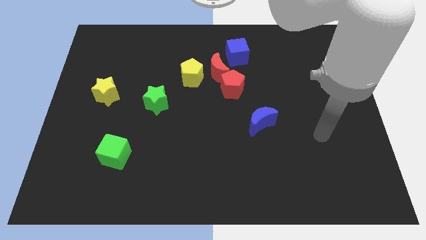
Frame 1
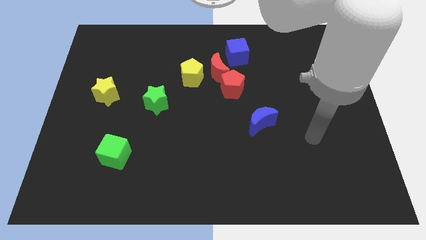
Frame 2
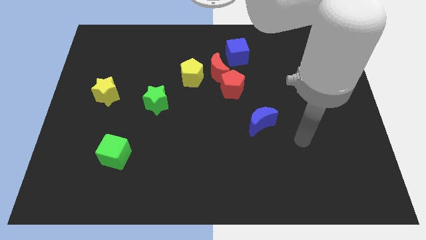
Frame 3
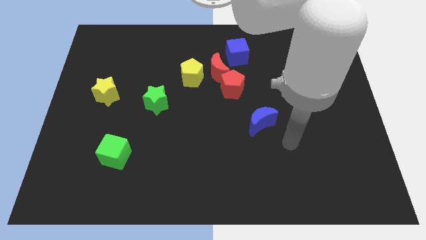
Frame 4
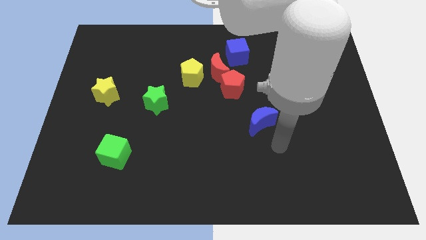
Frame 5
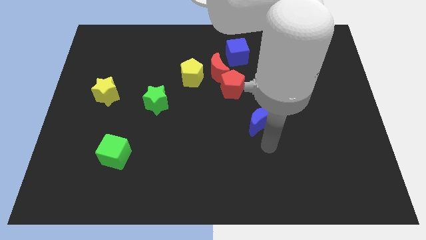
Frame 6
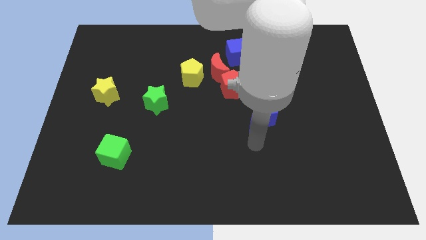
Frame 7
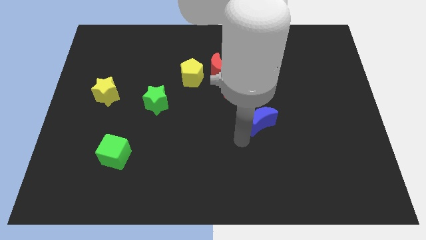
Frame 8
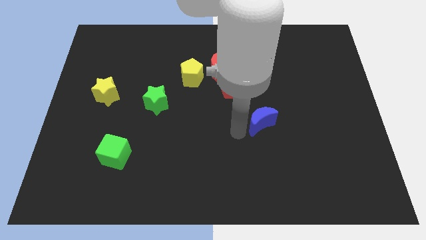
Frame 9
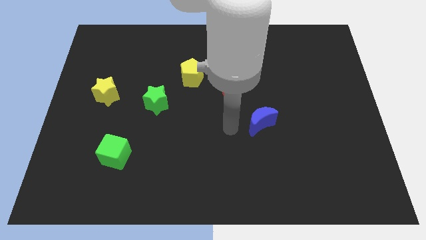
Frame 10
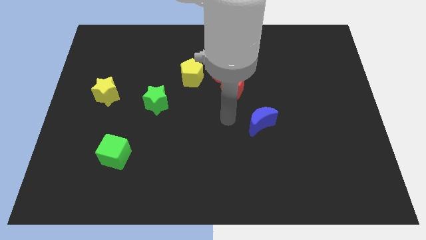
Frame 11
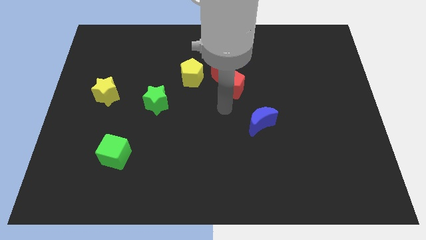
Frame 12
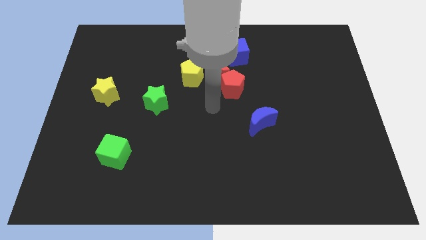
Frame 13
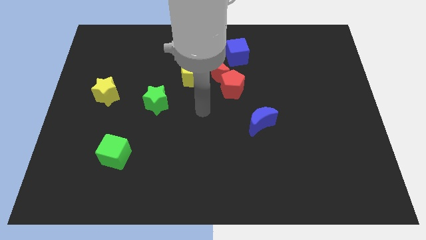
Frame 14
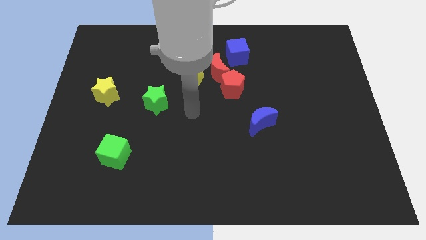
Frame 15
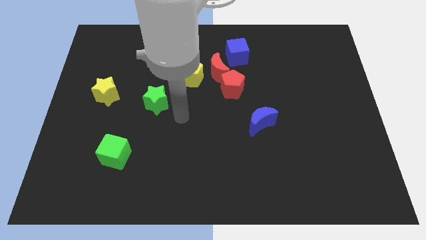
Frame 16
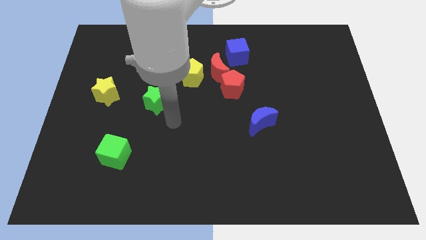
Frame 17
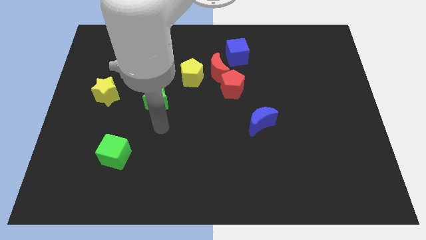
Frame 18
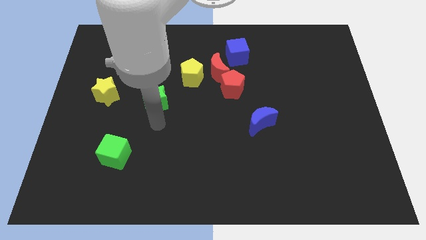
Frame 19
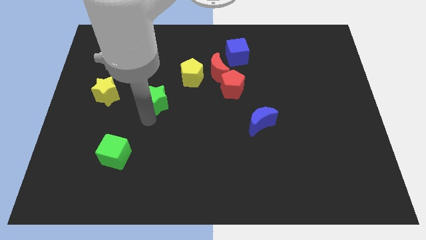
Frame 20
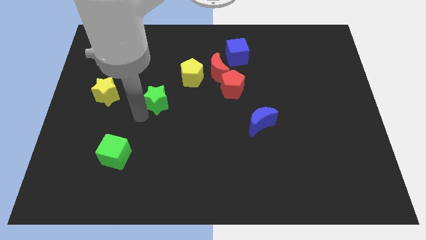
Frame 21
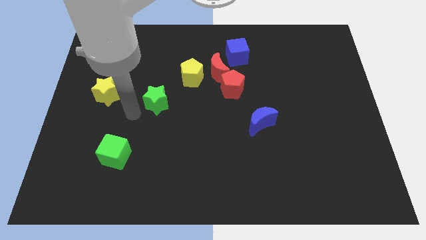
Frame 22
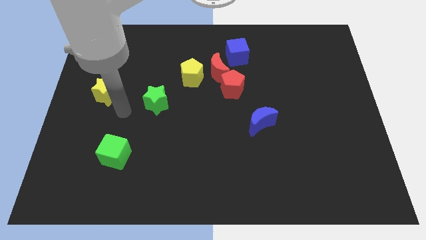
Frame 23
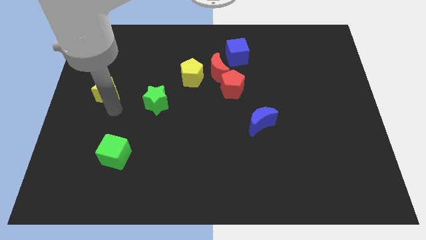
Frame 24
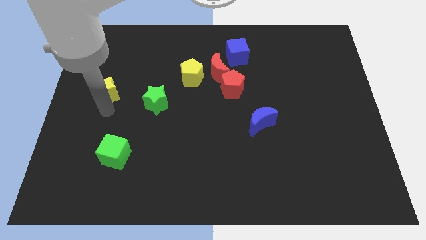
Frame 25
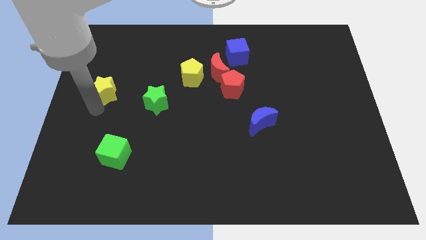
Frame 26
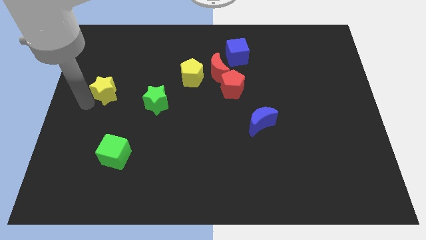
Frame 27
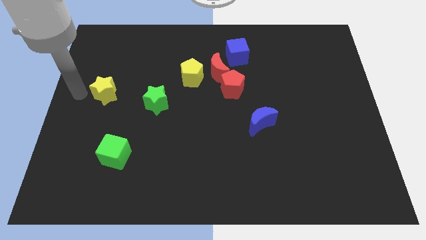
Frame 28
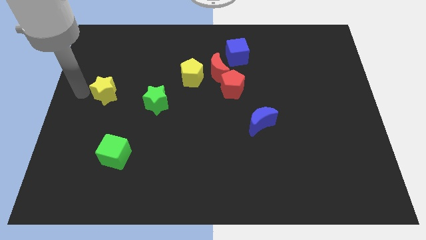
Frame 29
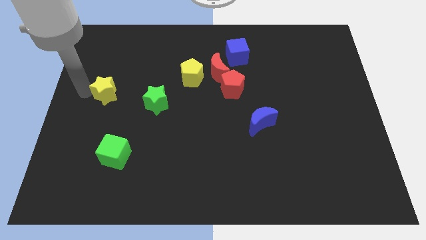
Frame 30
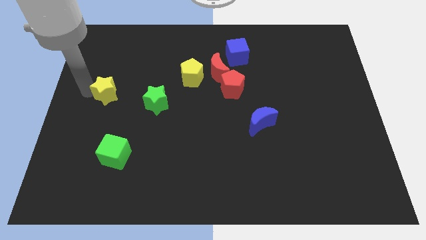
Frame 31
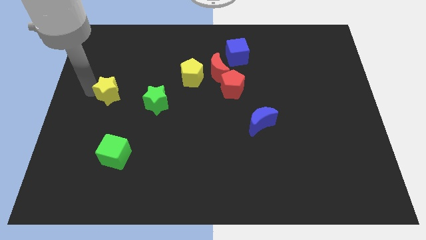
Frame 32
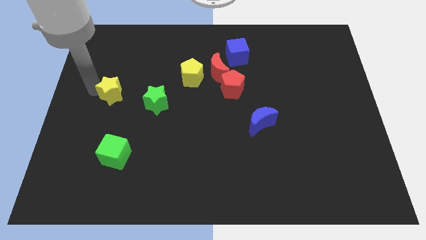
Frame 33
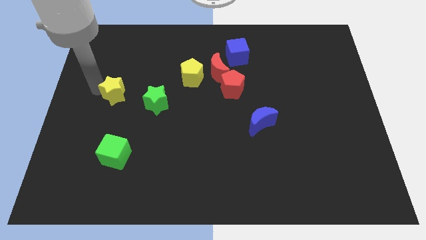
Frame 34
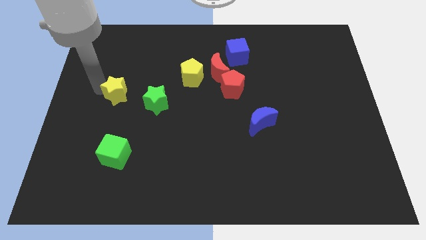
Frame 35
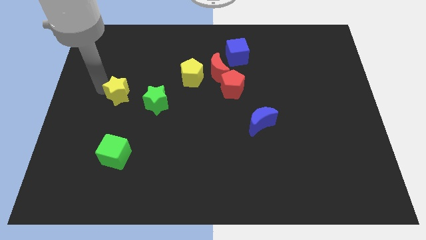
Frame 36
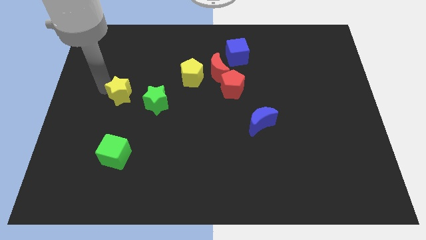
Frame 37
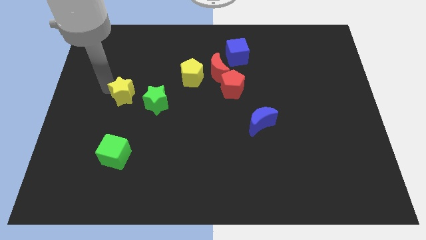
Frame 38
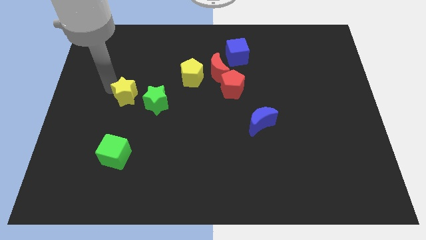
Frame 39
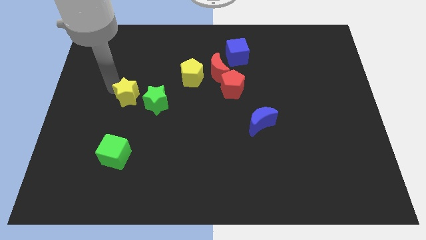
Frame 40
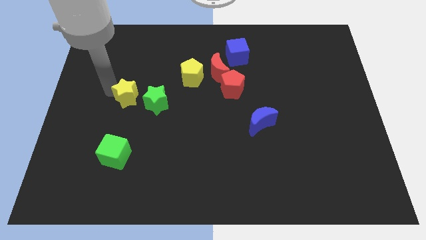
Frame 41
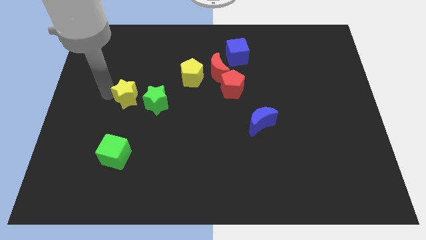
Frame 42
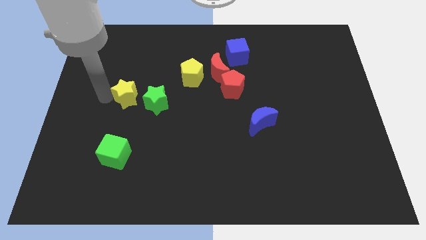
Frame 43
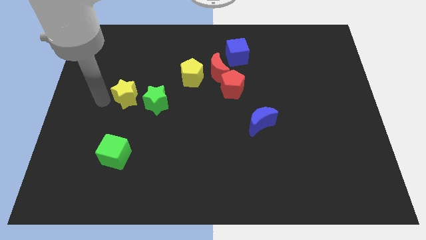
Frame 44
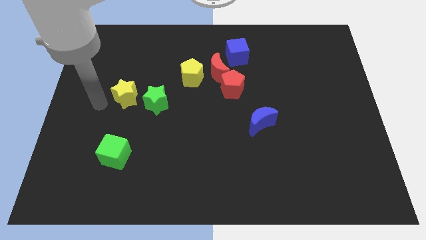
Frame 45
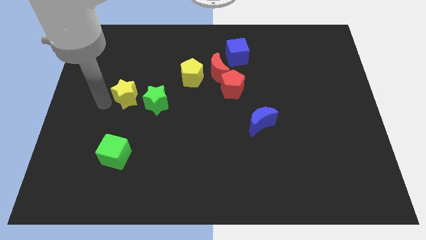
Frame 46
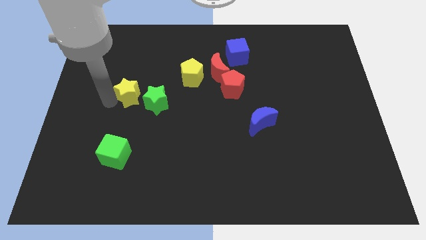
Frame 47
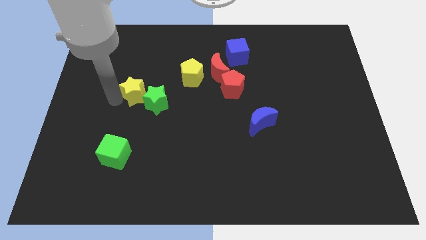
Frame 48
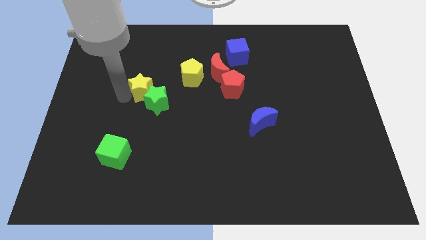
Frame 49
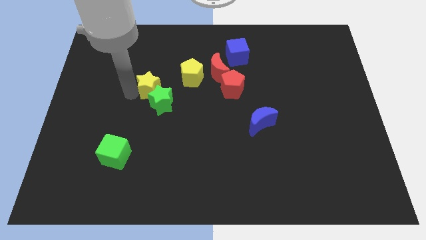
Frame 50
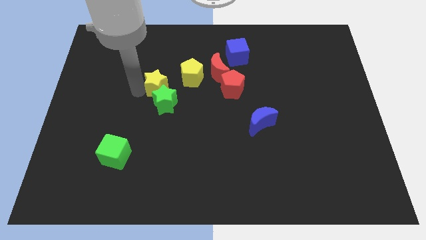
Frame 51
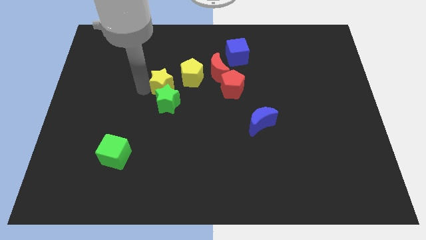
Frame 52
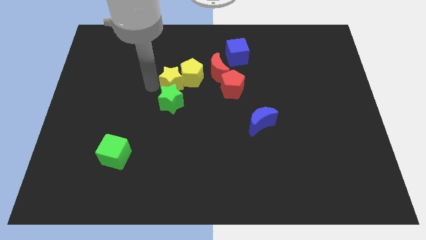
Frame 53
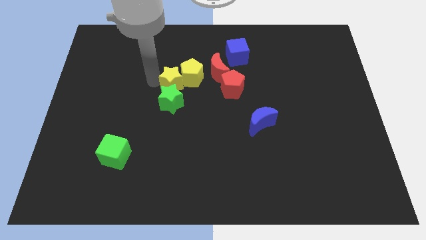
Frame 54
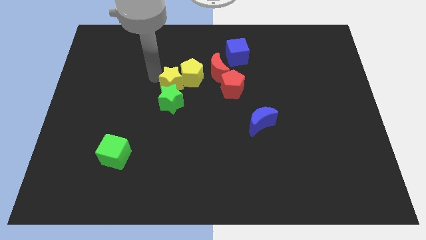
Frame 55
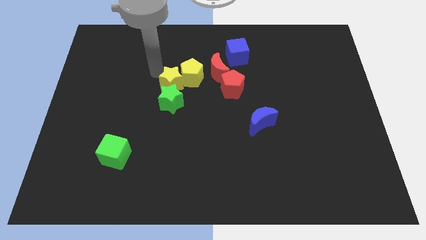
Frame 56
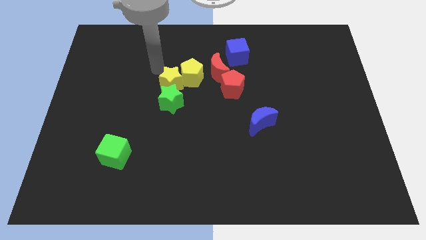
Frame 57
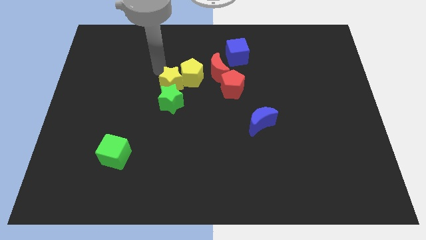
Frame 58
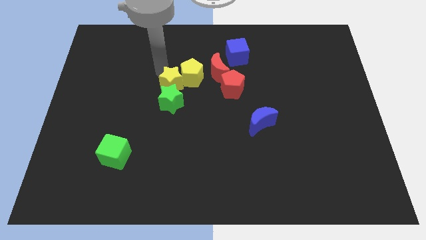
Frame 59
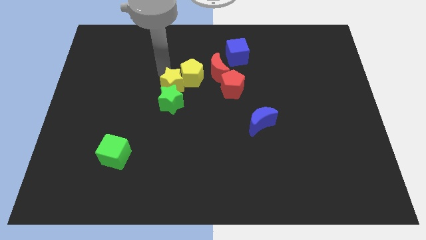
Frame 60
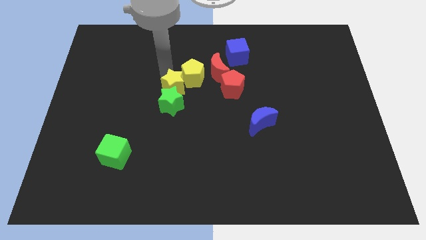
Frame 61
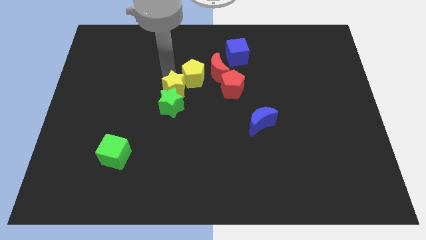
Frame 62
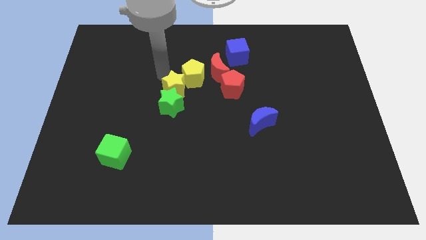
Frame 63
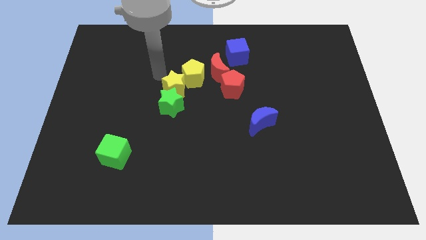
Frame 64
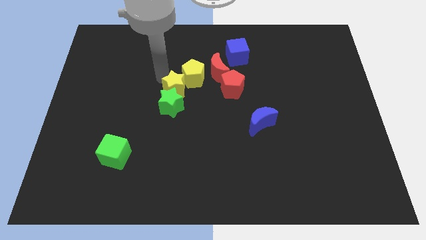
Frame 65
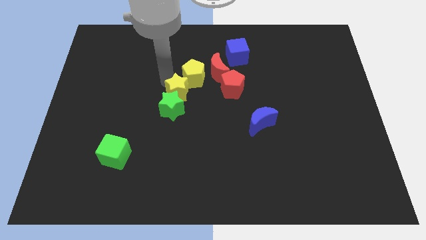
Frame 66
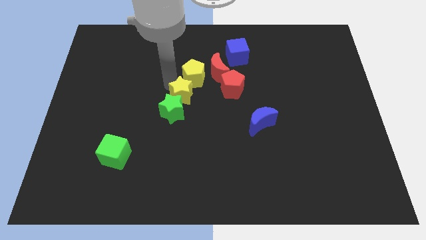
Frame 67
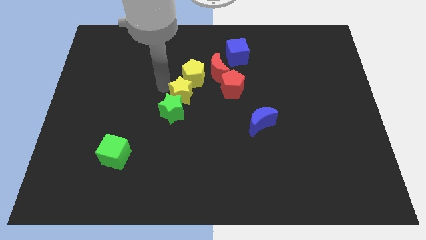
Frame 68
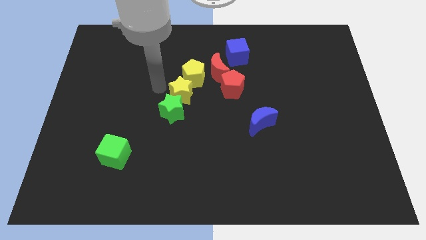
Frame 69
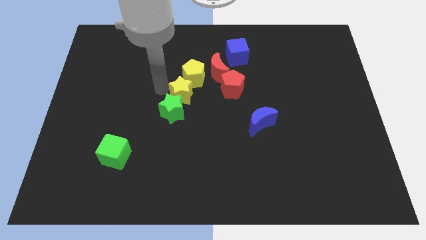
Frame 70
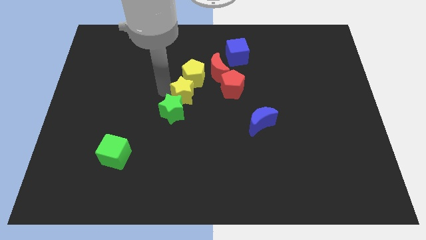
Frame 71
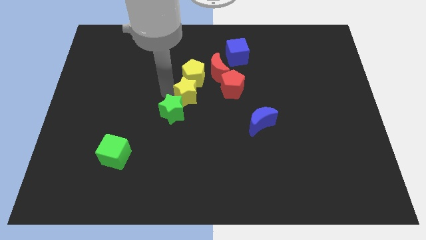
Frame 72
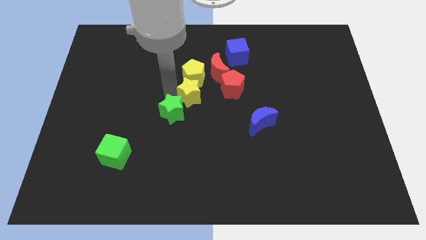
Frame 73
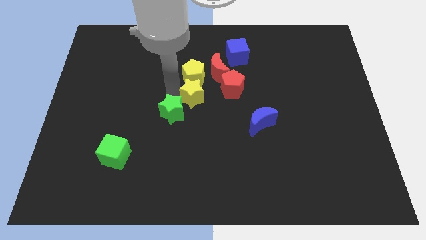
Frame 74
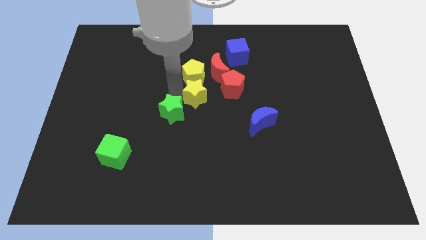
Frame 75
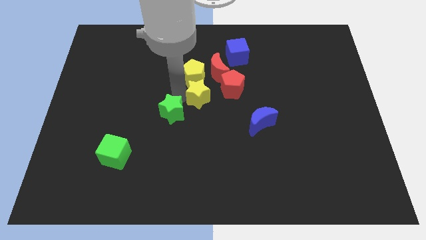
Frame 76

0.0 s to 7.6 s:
put the yellow star below the red moon
